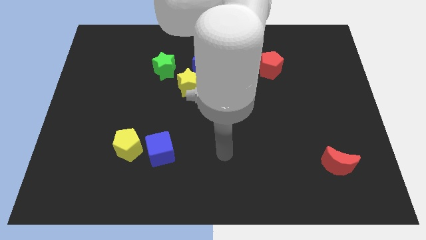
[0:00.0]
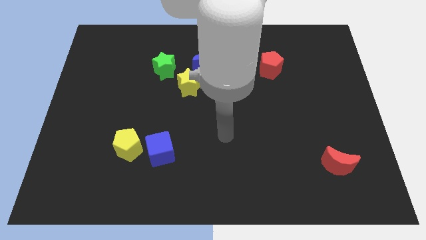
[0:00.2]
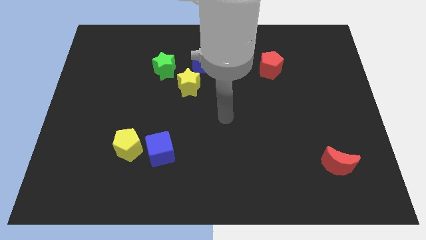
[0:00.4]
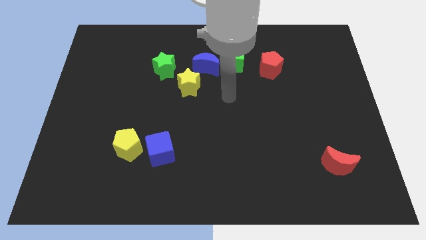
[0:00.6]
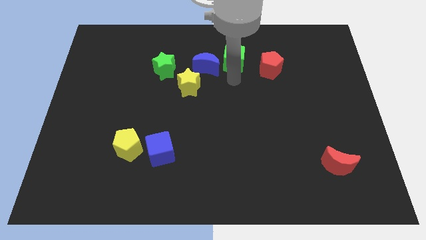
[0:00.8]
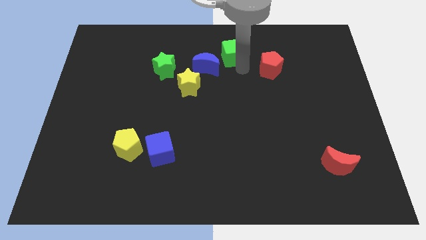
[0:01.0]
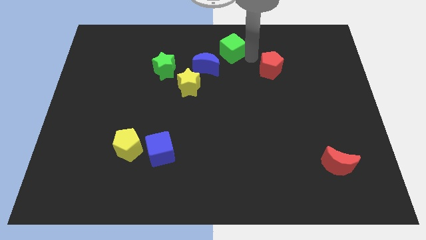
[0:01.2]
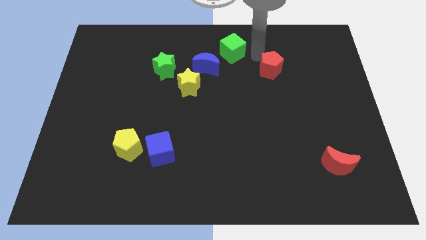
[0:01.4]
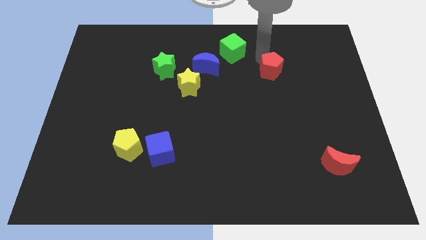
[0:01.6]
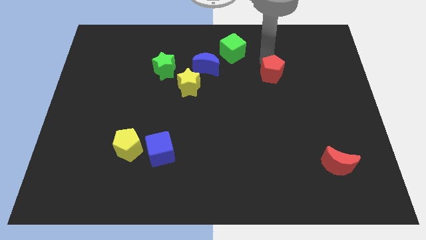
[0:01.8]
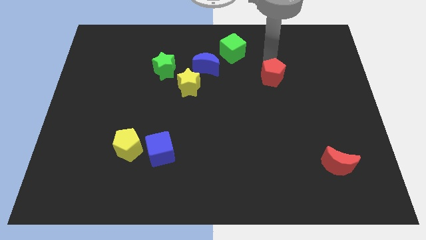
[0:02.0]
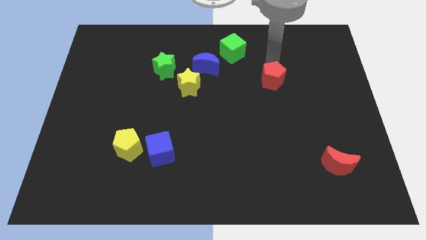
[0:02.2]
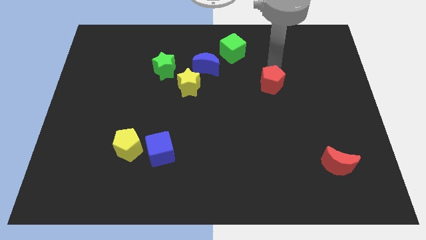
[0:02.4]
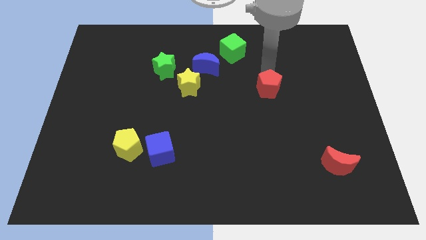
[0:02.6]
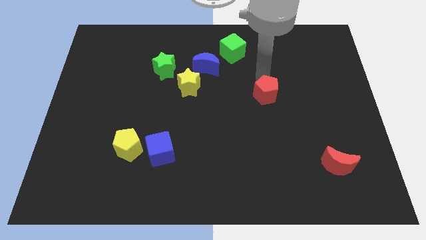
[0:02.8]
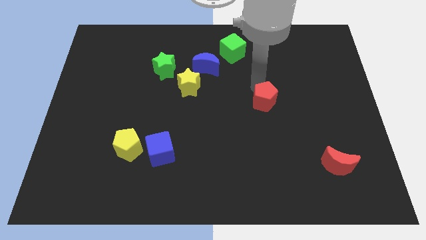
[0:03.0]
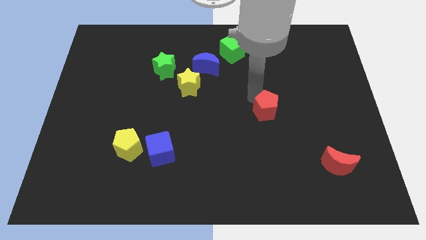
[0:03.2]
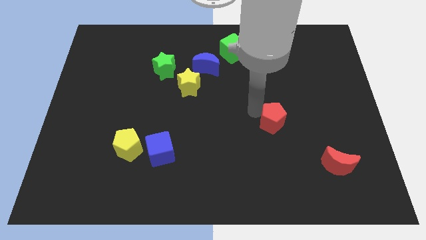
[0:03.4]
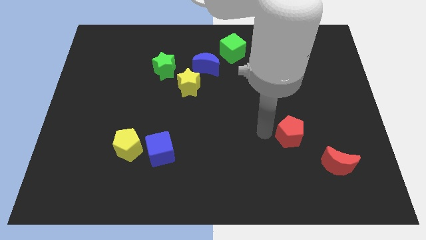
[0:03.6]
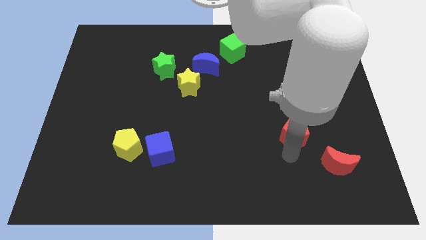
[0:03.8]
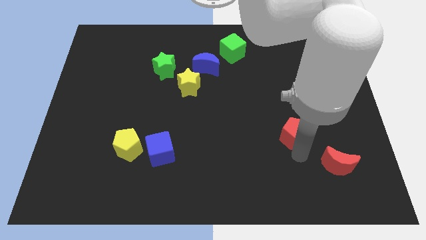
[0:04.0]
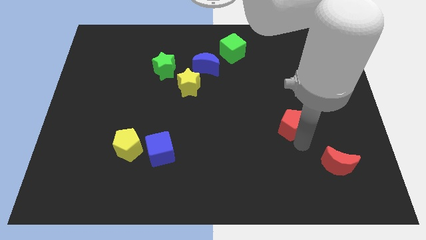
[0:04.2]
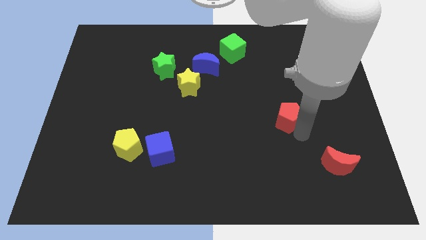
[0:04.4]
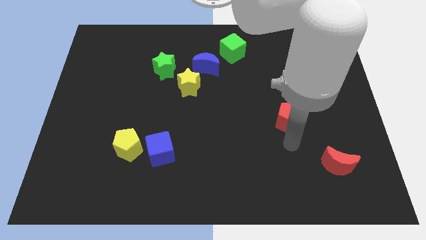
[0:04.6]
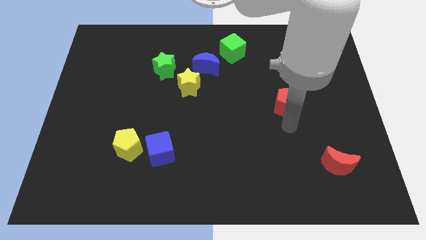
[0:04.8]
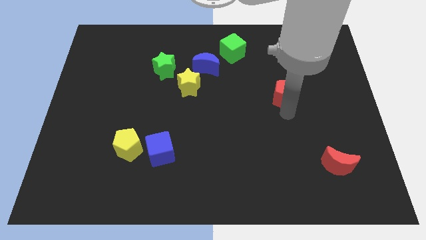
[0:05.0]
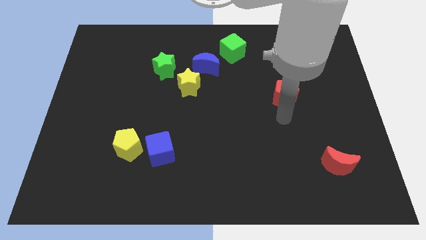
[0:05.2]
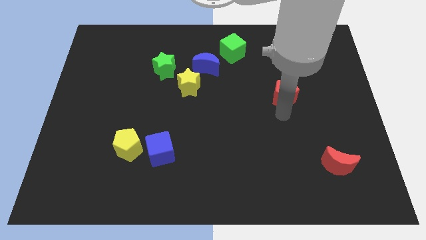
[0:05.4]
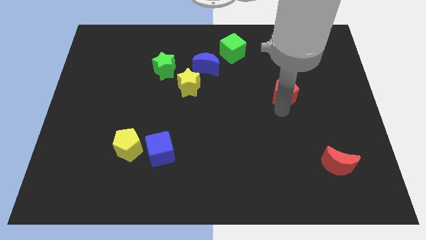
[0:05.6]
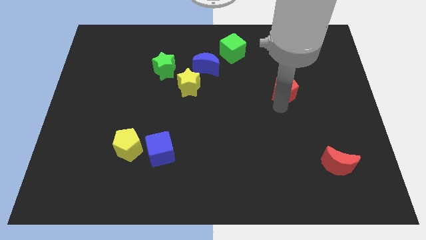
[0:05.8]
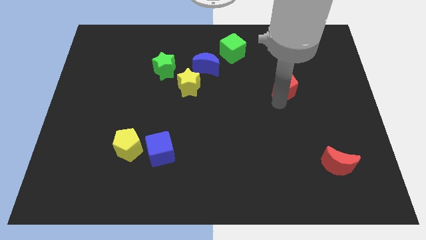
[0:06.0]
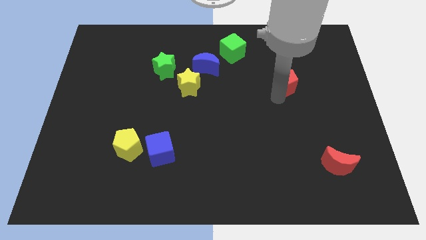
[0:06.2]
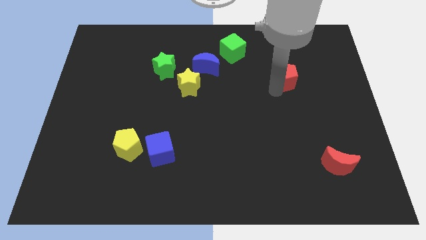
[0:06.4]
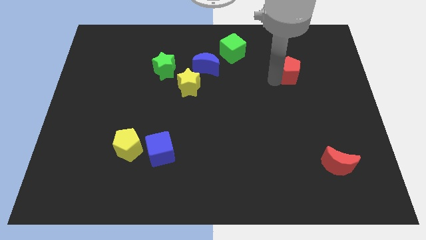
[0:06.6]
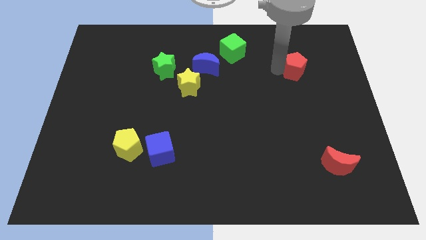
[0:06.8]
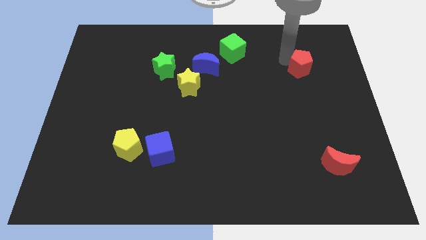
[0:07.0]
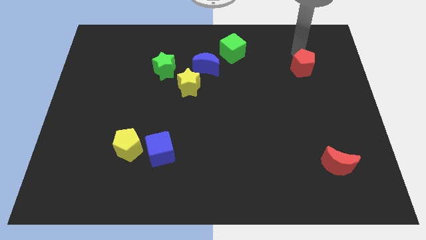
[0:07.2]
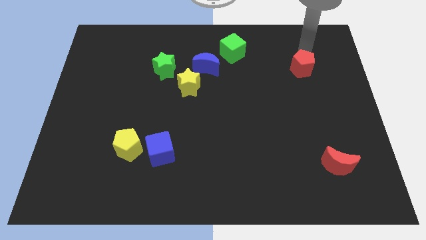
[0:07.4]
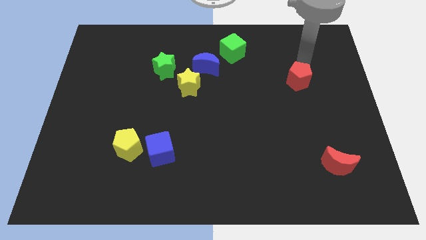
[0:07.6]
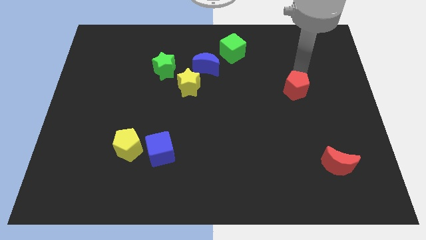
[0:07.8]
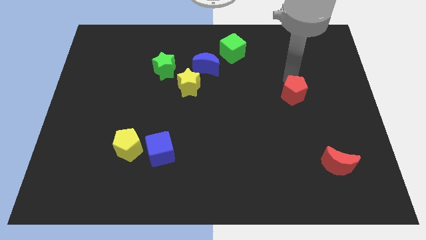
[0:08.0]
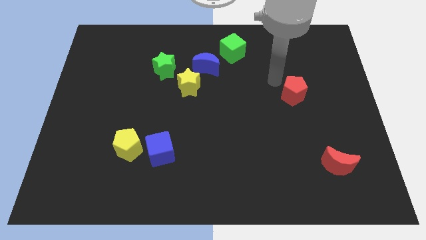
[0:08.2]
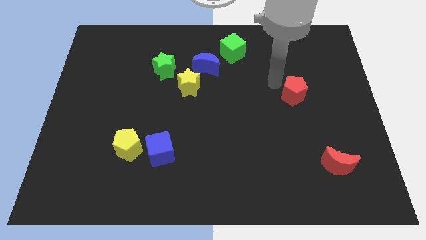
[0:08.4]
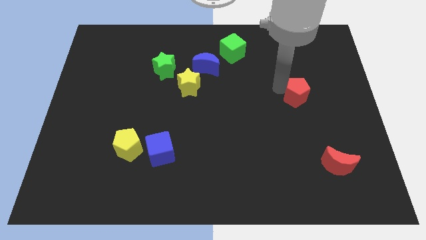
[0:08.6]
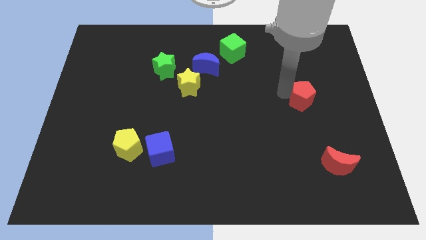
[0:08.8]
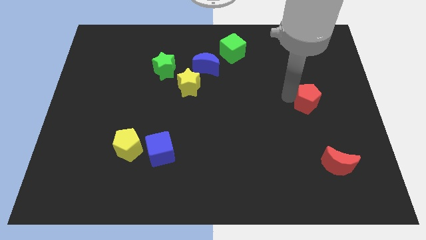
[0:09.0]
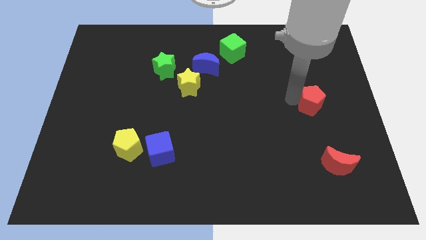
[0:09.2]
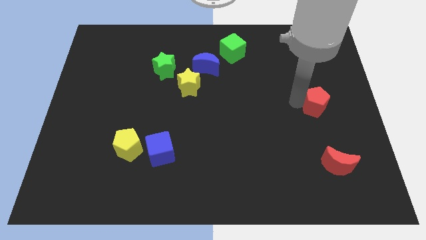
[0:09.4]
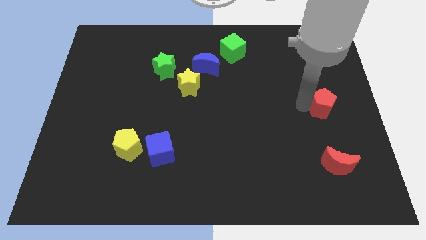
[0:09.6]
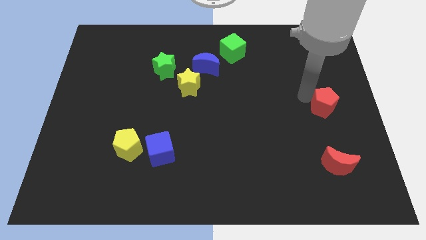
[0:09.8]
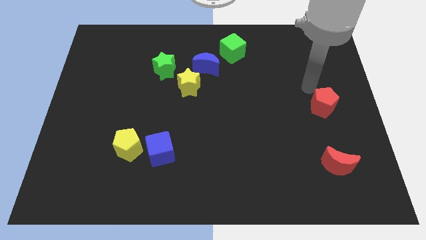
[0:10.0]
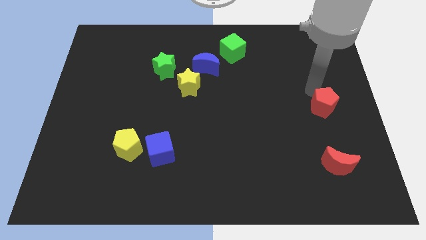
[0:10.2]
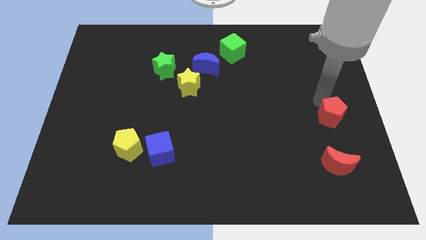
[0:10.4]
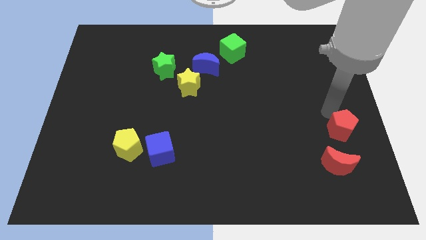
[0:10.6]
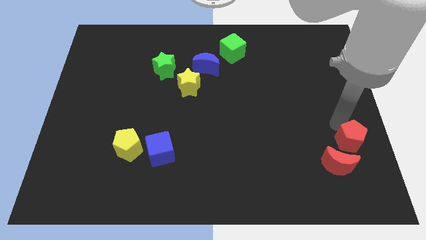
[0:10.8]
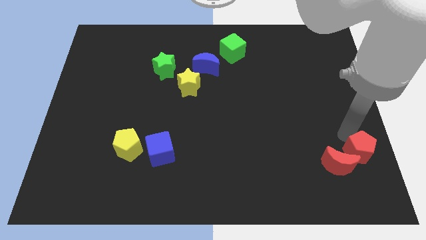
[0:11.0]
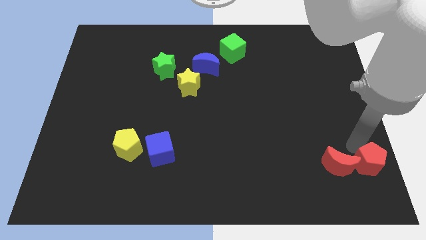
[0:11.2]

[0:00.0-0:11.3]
slide the red pentagon to the bottom right of the board

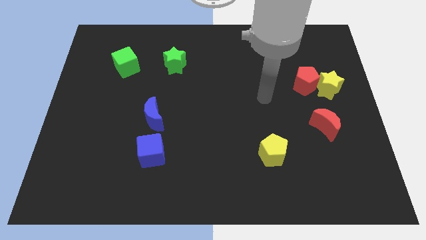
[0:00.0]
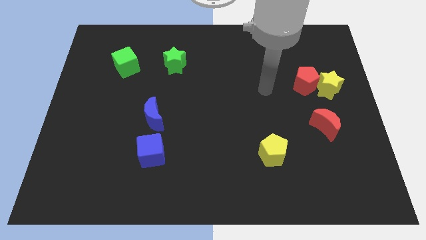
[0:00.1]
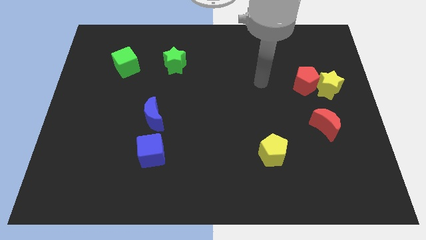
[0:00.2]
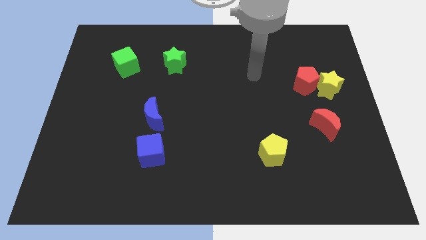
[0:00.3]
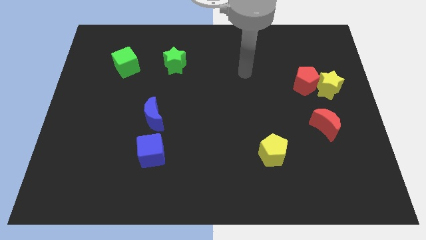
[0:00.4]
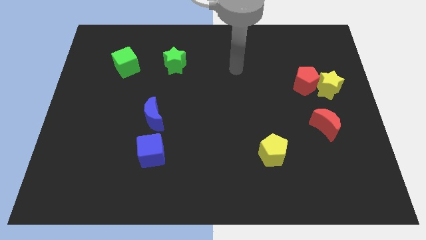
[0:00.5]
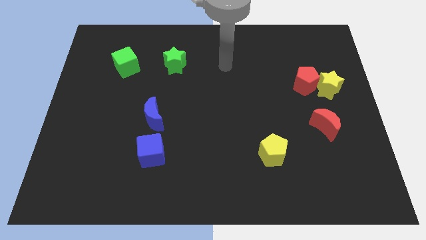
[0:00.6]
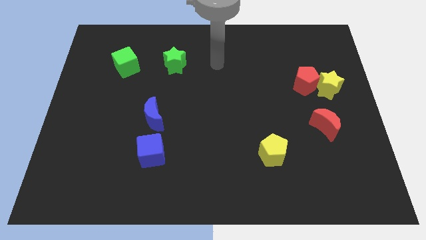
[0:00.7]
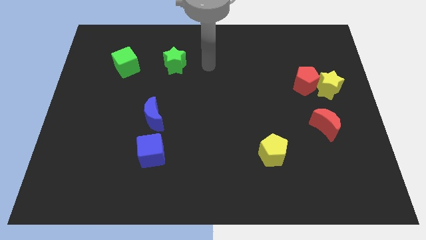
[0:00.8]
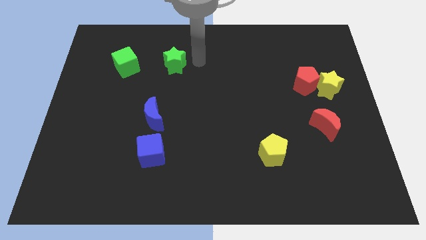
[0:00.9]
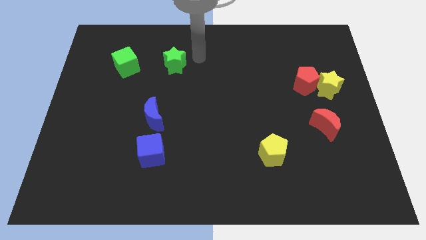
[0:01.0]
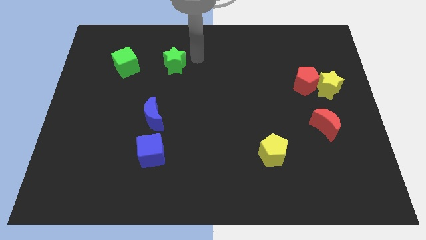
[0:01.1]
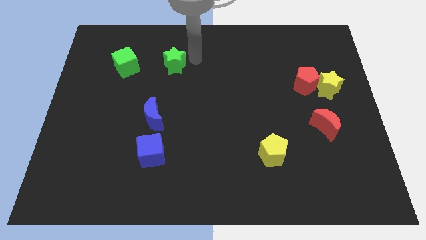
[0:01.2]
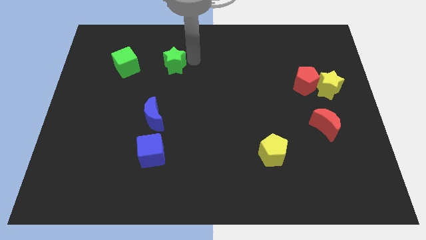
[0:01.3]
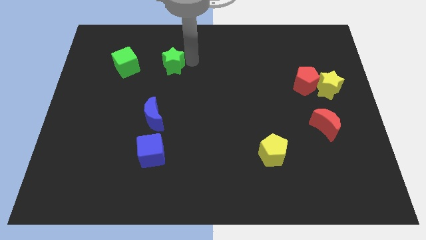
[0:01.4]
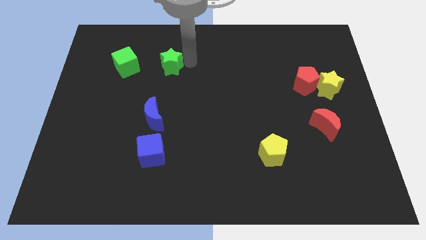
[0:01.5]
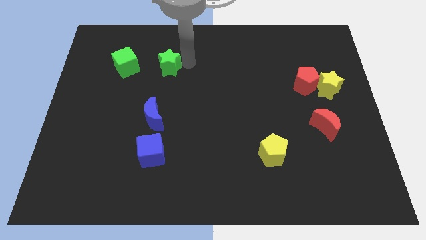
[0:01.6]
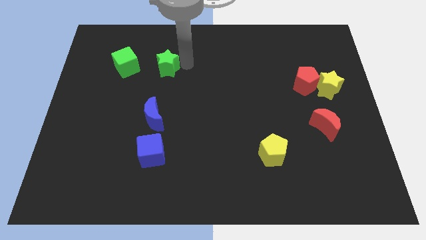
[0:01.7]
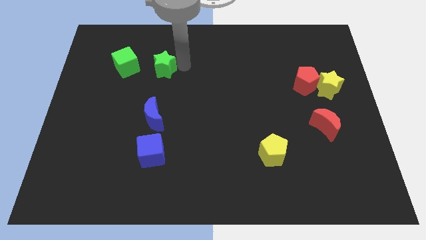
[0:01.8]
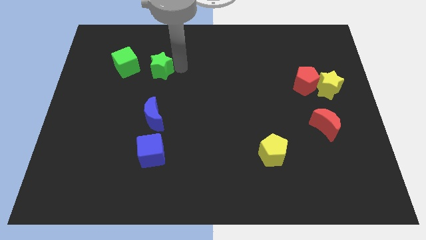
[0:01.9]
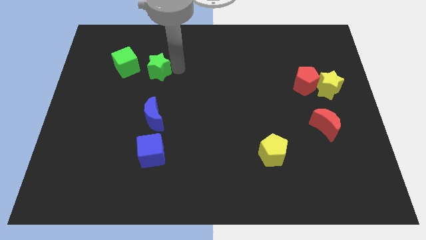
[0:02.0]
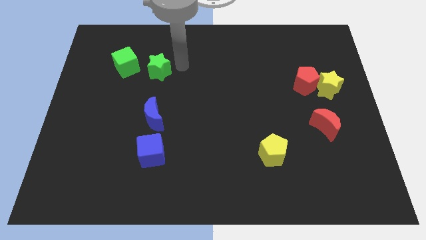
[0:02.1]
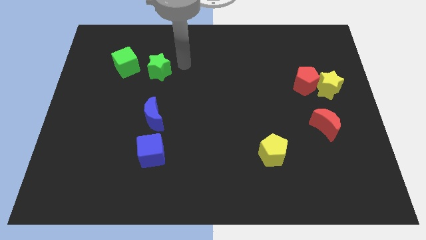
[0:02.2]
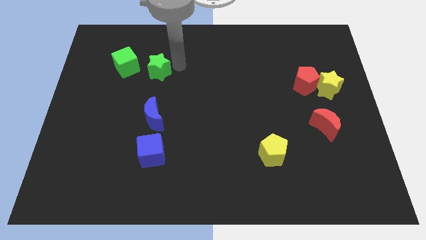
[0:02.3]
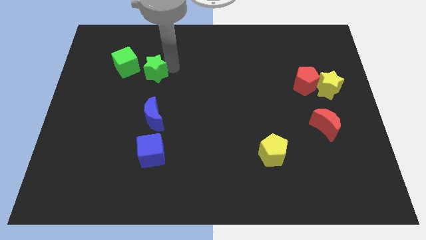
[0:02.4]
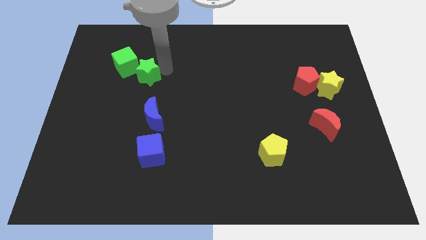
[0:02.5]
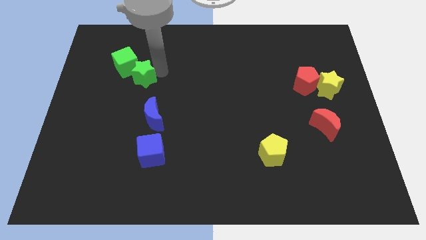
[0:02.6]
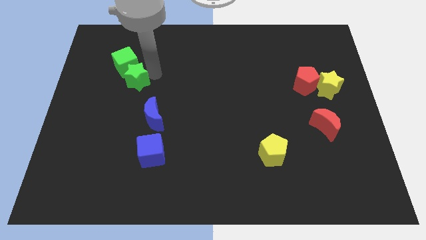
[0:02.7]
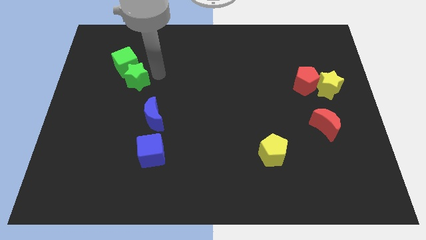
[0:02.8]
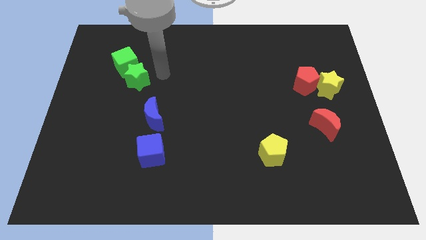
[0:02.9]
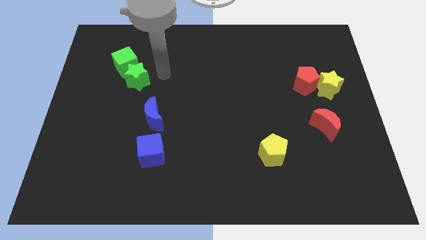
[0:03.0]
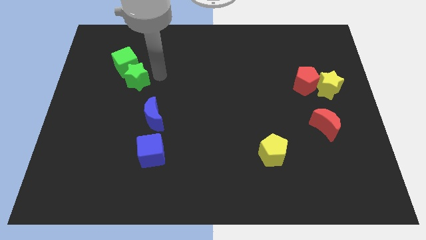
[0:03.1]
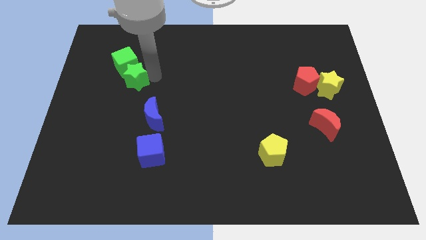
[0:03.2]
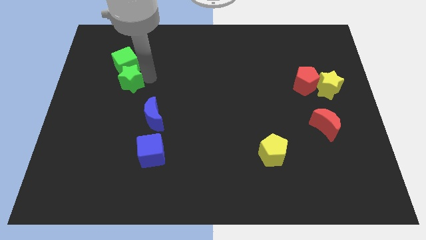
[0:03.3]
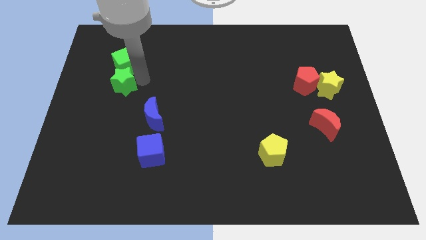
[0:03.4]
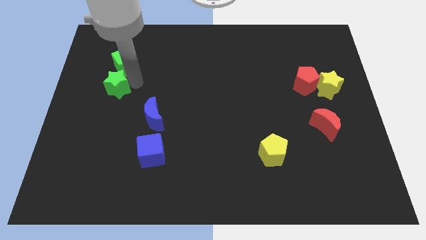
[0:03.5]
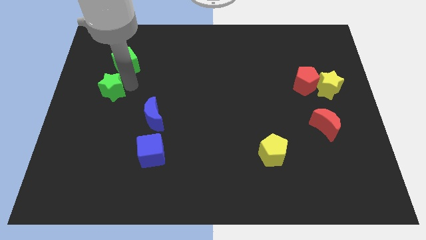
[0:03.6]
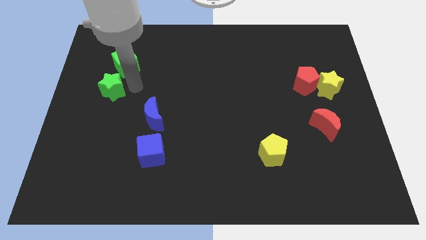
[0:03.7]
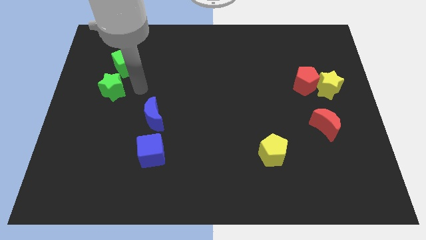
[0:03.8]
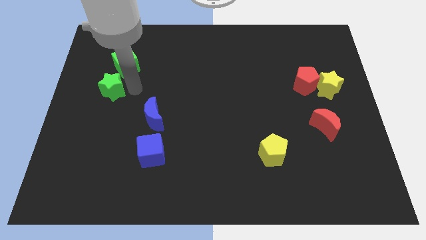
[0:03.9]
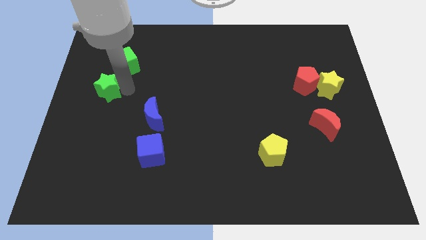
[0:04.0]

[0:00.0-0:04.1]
move the green star to the left side of the board
